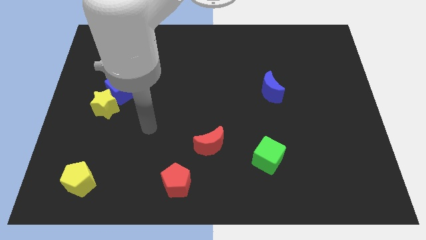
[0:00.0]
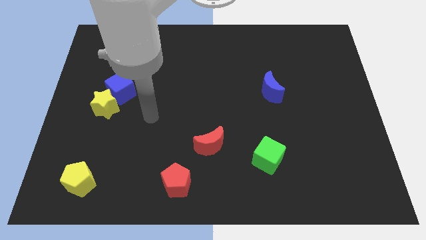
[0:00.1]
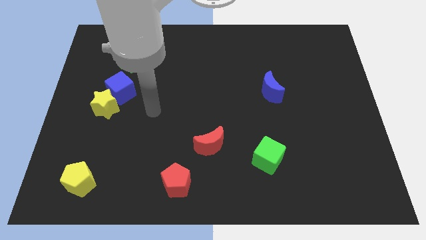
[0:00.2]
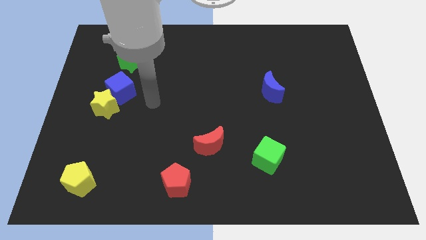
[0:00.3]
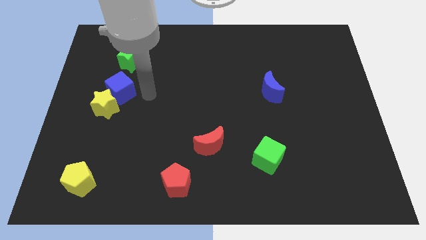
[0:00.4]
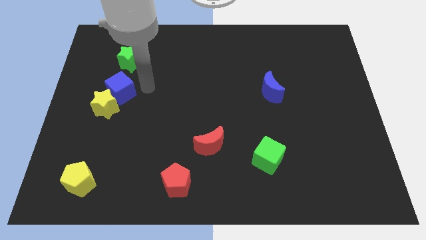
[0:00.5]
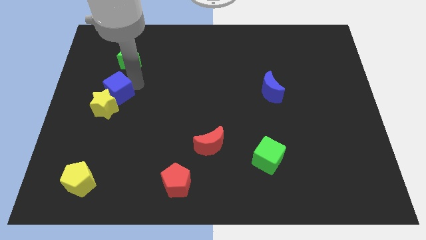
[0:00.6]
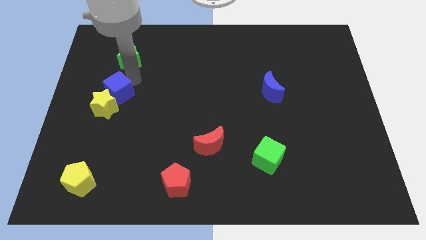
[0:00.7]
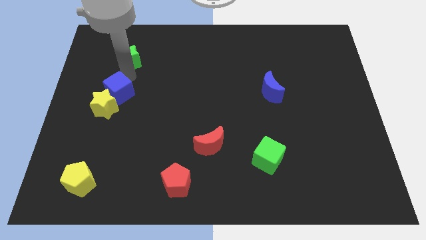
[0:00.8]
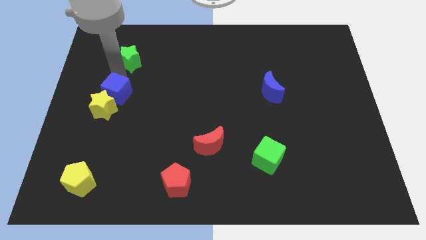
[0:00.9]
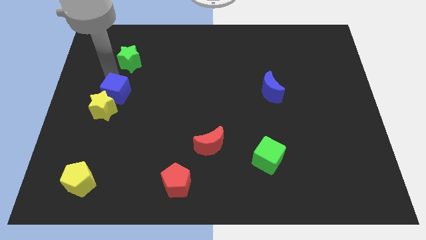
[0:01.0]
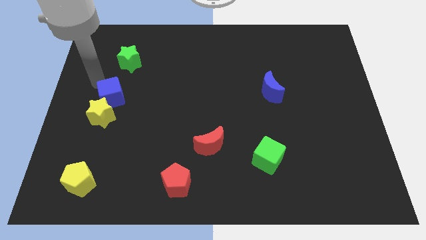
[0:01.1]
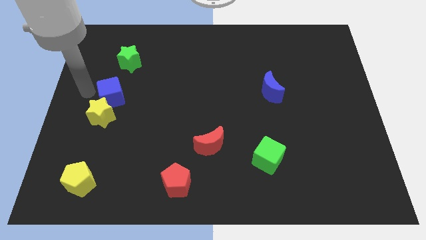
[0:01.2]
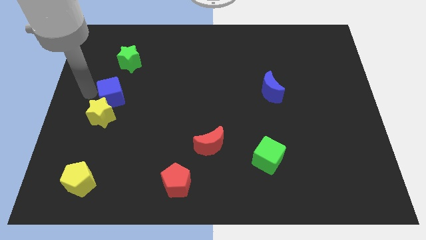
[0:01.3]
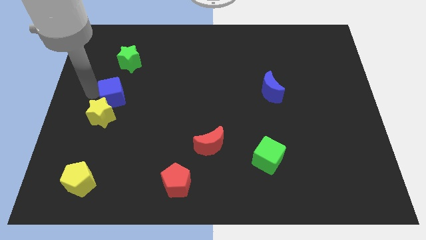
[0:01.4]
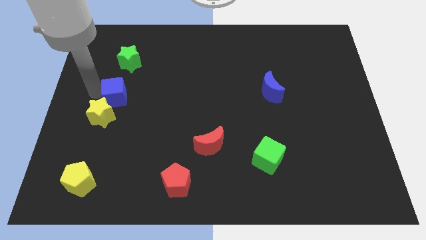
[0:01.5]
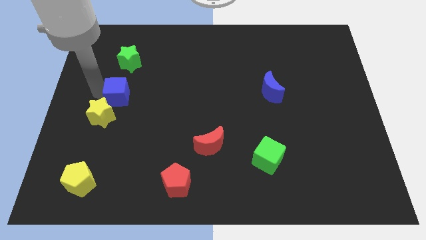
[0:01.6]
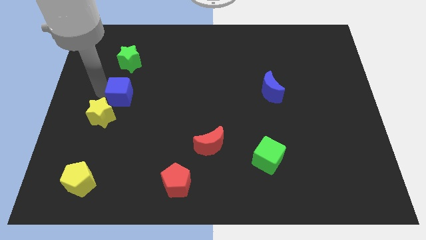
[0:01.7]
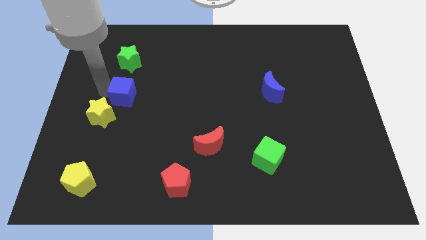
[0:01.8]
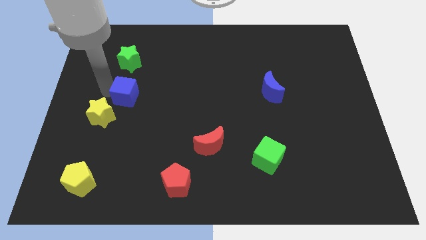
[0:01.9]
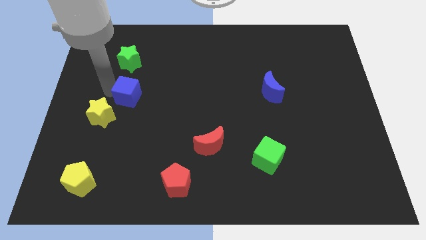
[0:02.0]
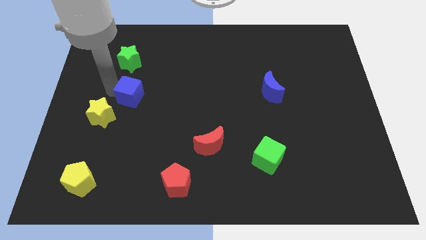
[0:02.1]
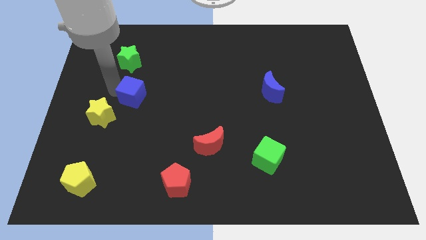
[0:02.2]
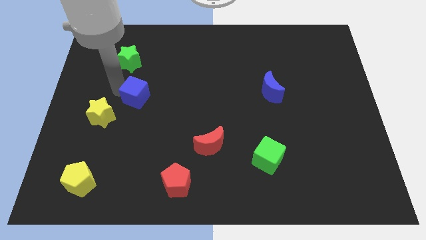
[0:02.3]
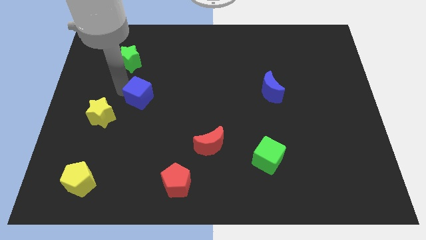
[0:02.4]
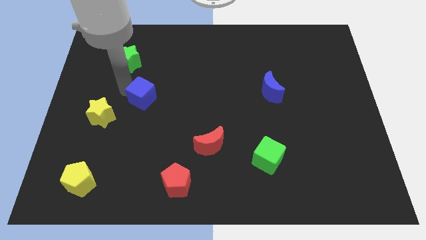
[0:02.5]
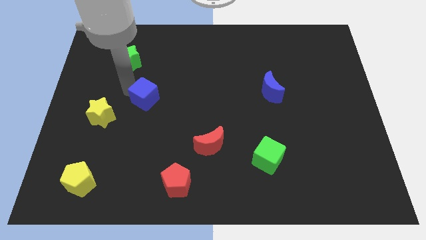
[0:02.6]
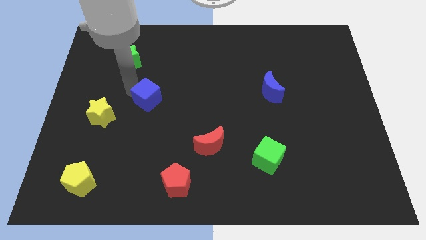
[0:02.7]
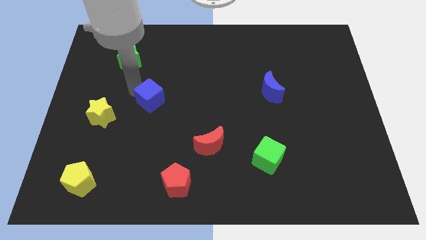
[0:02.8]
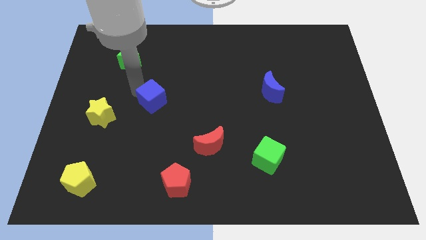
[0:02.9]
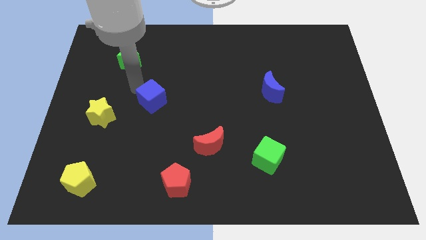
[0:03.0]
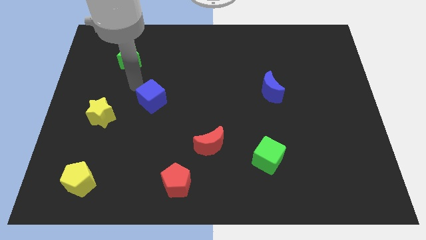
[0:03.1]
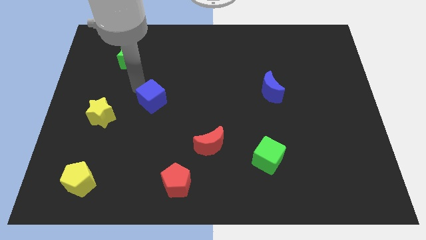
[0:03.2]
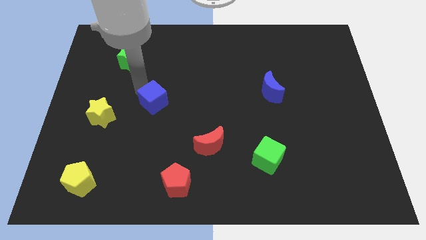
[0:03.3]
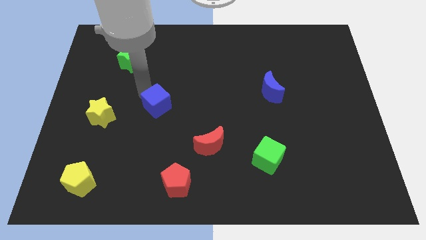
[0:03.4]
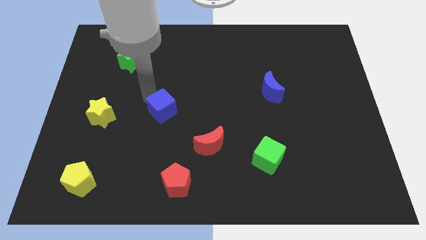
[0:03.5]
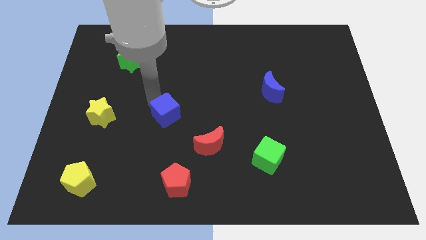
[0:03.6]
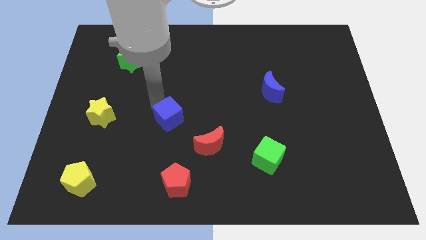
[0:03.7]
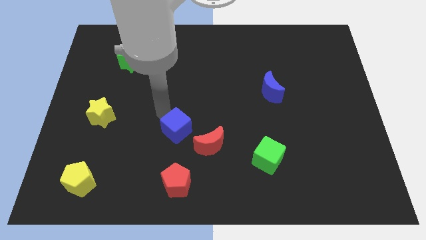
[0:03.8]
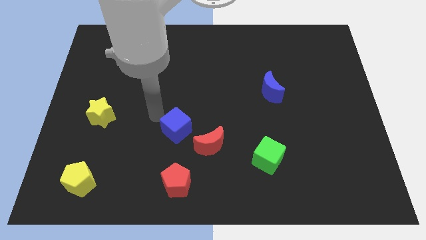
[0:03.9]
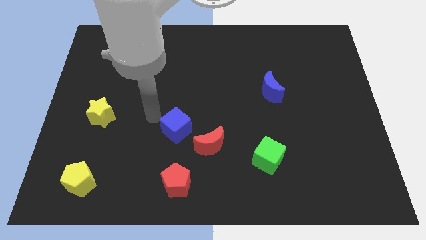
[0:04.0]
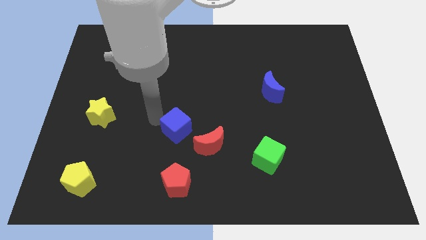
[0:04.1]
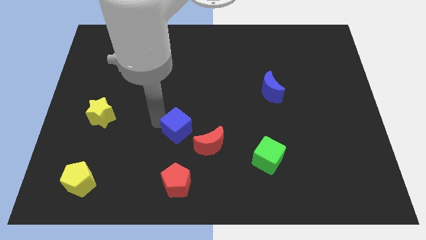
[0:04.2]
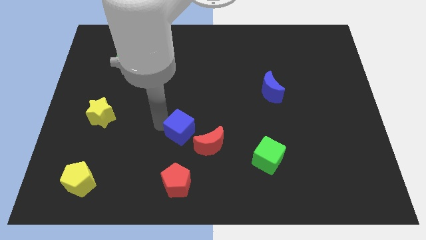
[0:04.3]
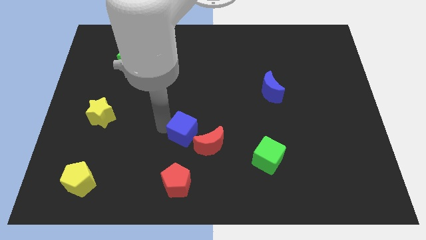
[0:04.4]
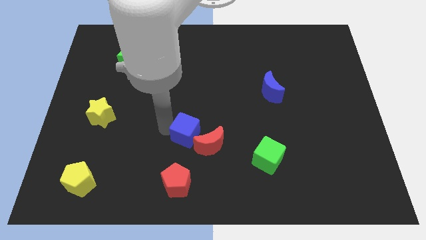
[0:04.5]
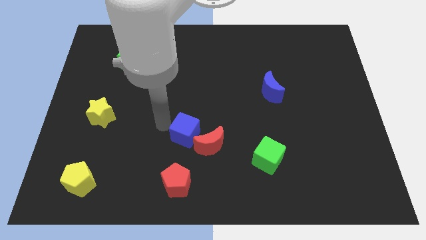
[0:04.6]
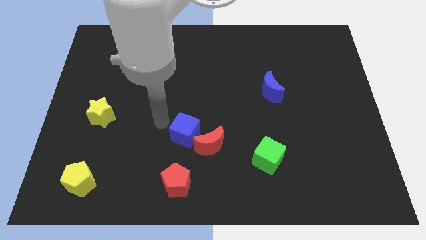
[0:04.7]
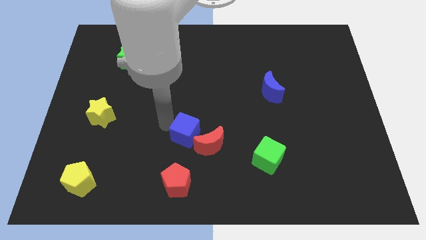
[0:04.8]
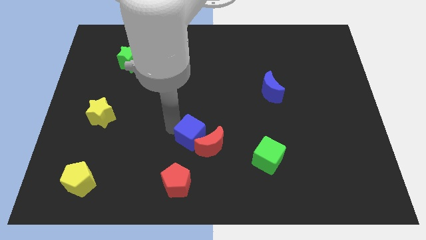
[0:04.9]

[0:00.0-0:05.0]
slide the blue cube to the red moon

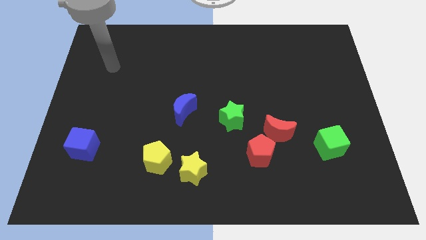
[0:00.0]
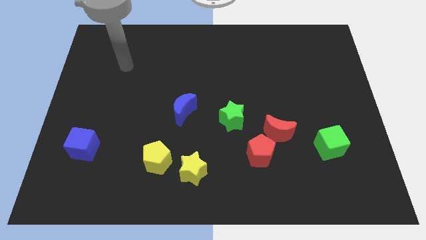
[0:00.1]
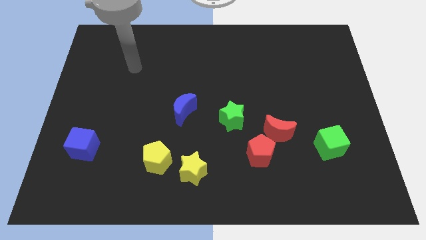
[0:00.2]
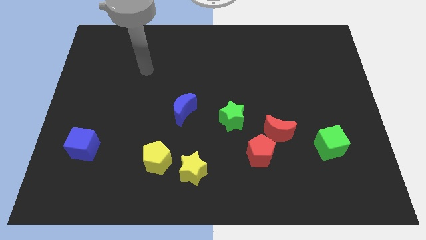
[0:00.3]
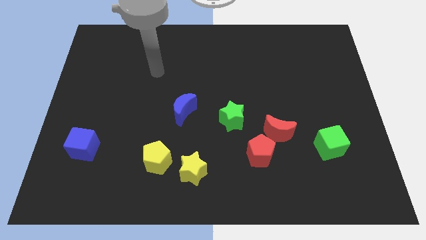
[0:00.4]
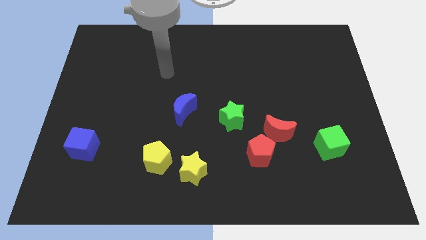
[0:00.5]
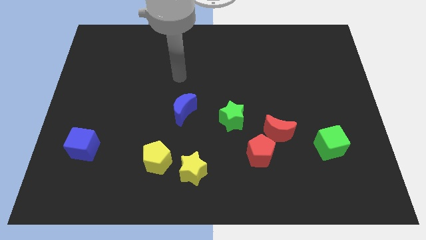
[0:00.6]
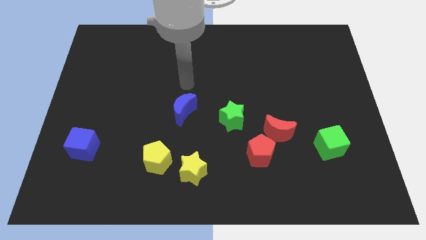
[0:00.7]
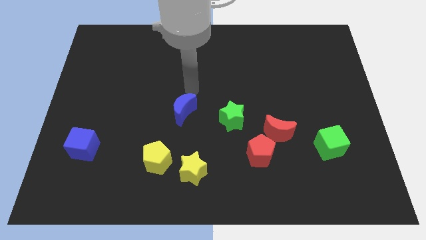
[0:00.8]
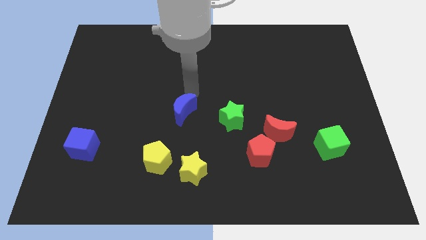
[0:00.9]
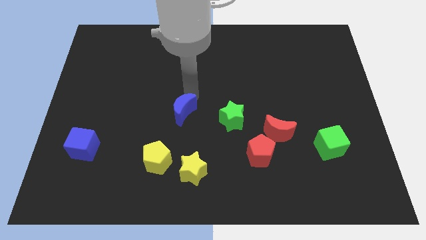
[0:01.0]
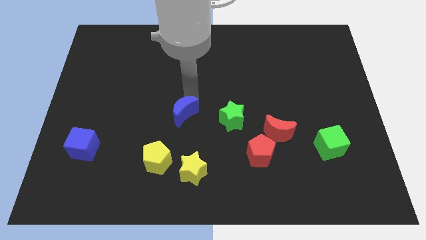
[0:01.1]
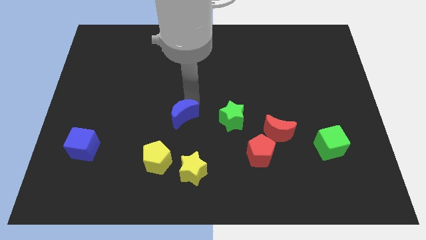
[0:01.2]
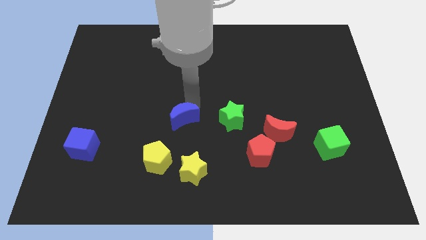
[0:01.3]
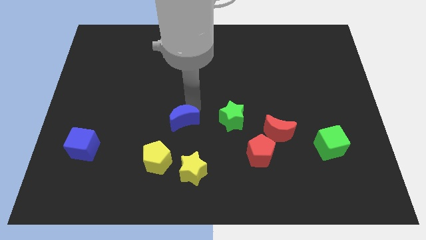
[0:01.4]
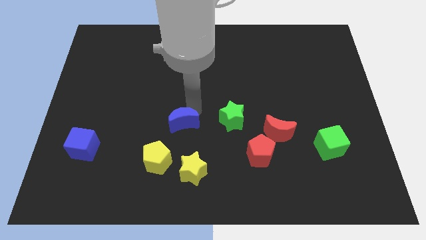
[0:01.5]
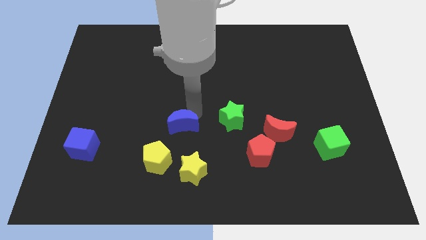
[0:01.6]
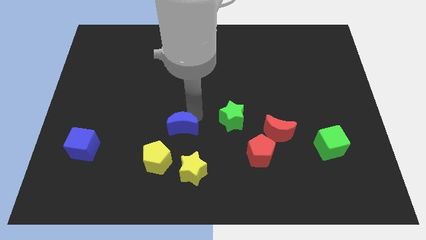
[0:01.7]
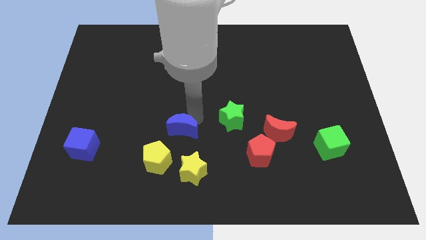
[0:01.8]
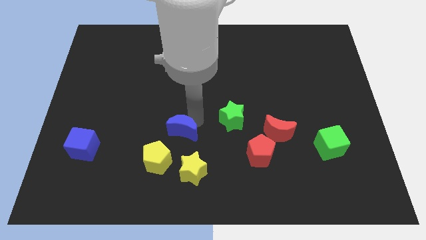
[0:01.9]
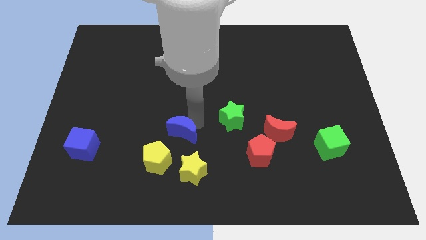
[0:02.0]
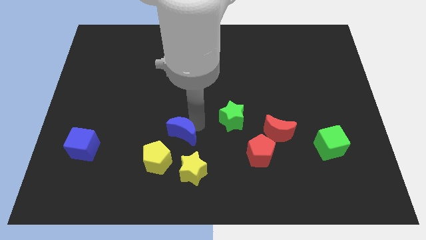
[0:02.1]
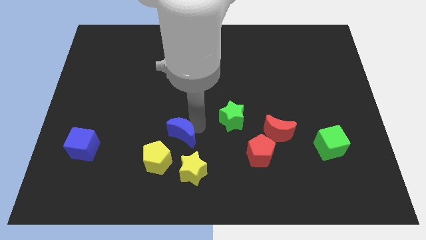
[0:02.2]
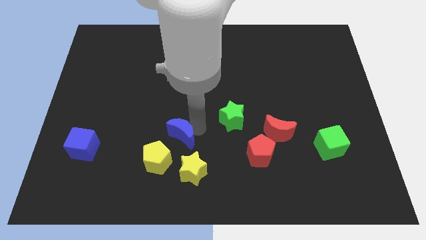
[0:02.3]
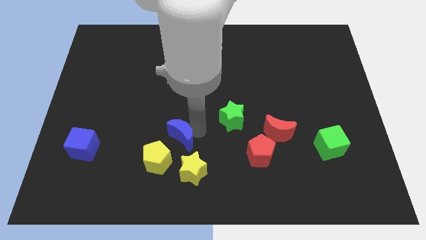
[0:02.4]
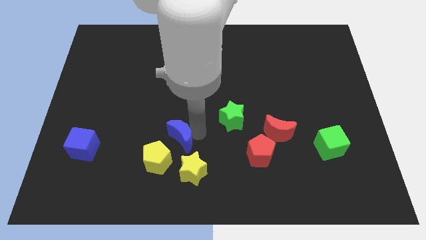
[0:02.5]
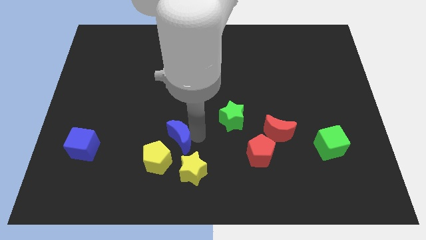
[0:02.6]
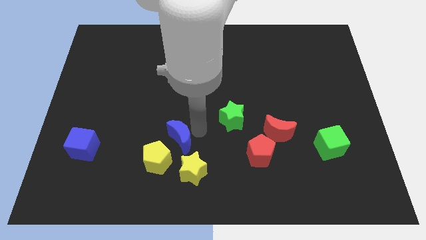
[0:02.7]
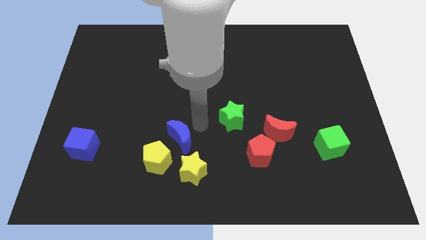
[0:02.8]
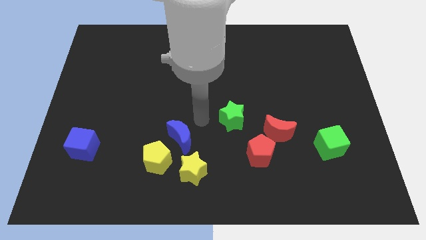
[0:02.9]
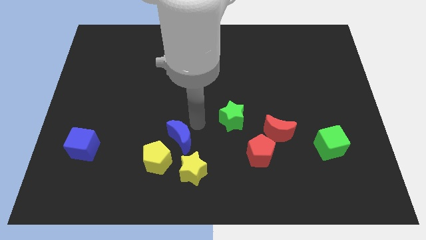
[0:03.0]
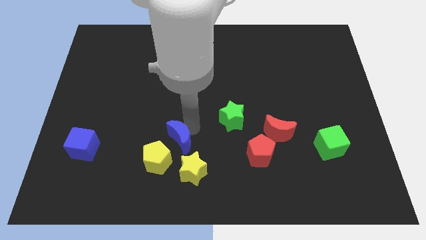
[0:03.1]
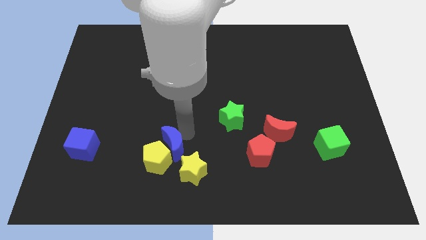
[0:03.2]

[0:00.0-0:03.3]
push the blue moon towards the yellow pentagon
